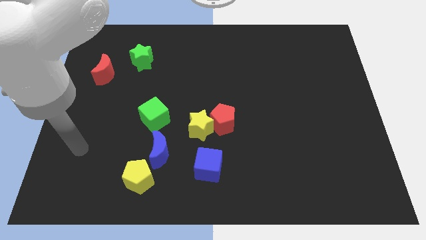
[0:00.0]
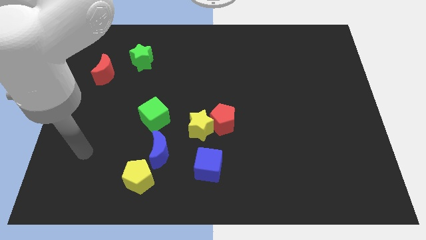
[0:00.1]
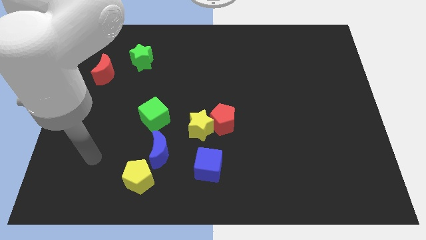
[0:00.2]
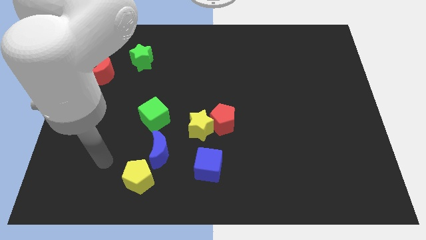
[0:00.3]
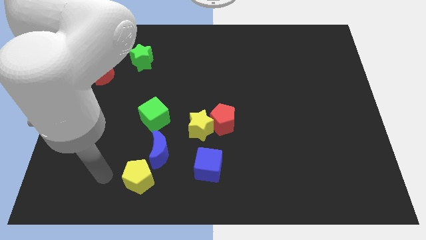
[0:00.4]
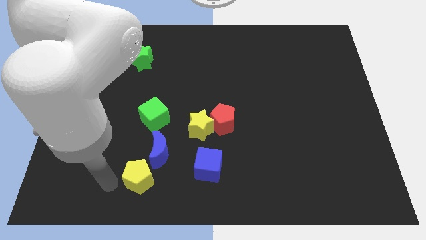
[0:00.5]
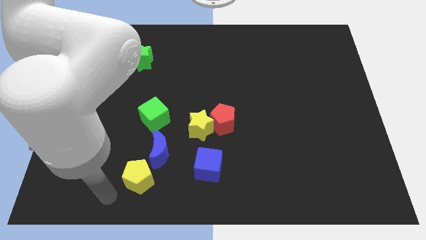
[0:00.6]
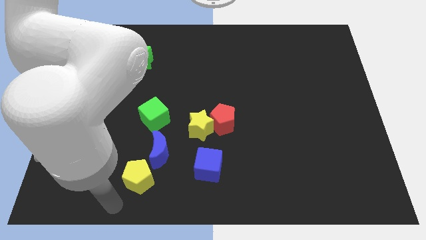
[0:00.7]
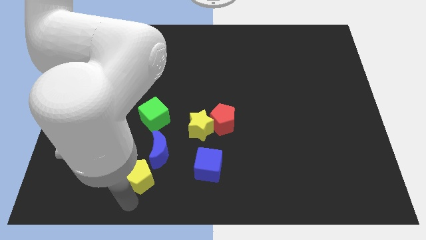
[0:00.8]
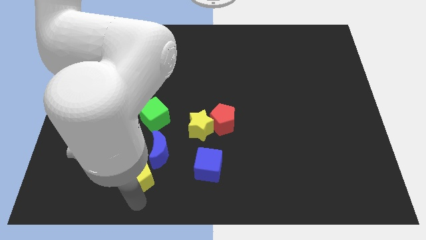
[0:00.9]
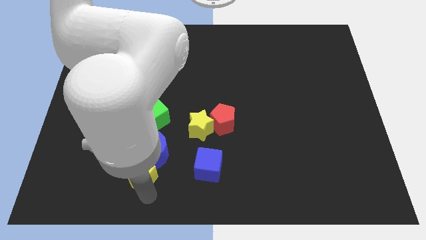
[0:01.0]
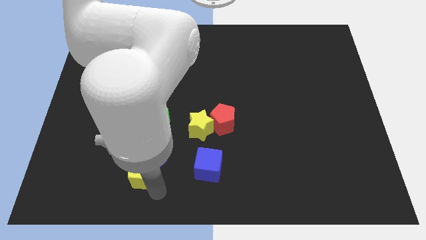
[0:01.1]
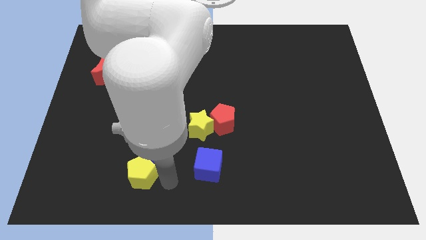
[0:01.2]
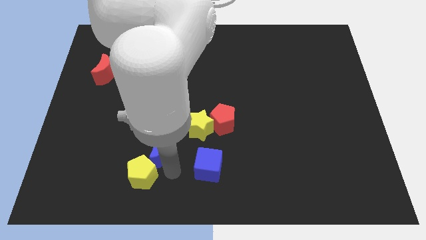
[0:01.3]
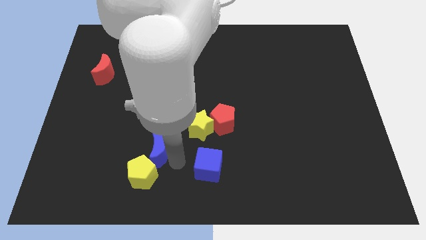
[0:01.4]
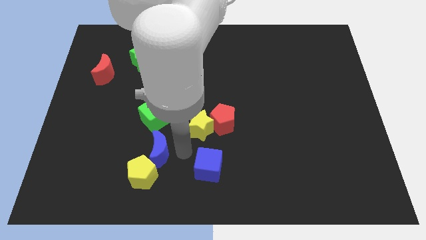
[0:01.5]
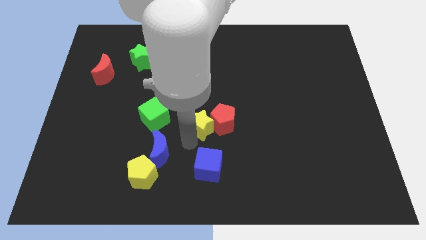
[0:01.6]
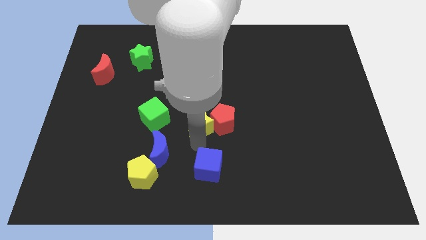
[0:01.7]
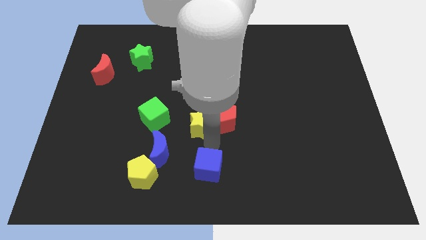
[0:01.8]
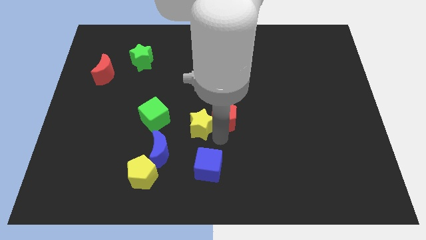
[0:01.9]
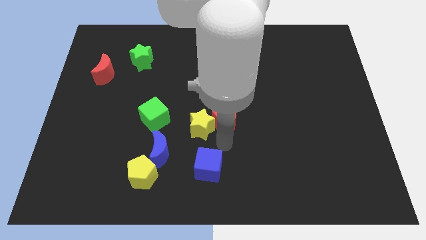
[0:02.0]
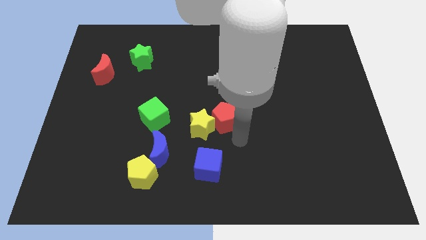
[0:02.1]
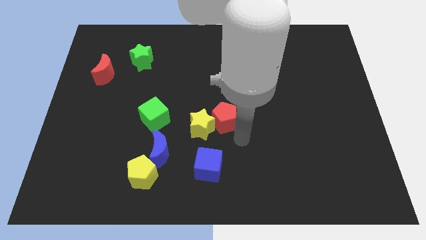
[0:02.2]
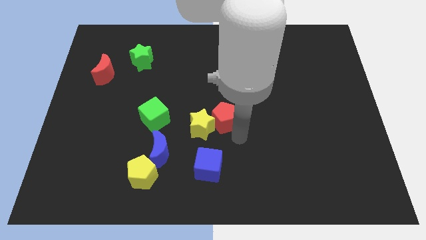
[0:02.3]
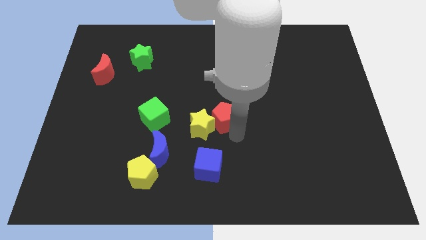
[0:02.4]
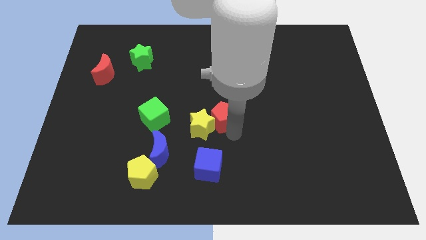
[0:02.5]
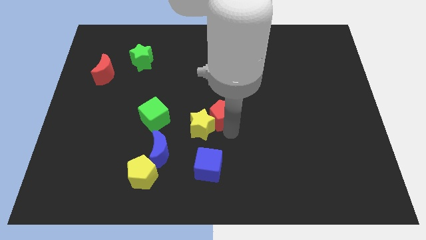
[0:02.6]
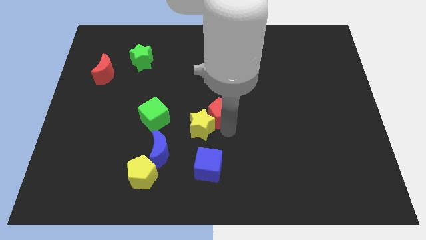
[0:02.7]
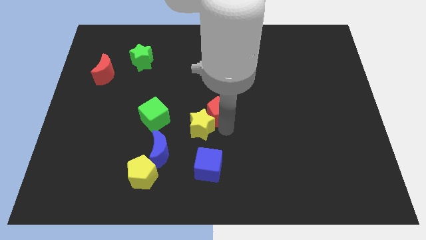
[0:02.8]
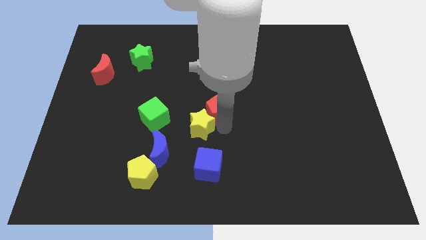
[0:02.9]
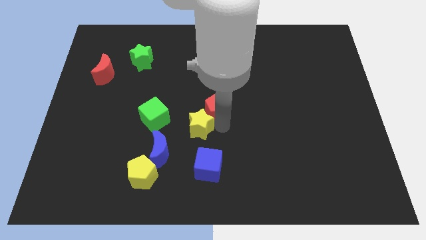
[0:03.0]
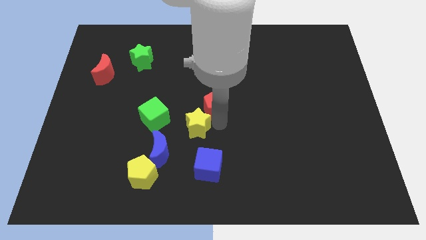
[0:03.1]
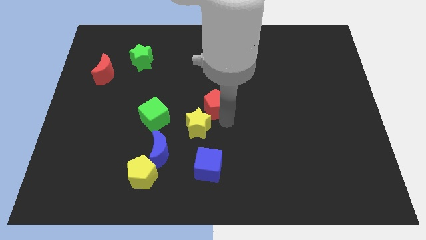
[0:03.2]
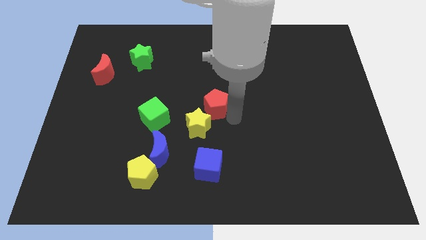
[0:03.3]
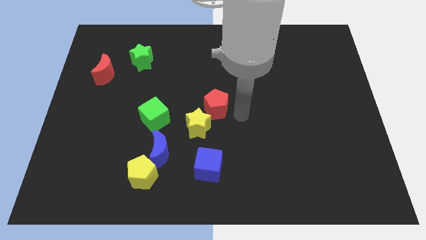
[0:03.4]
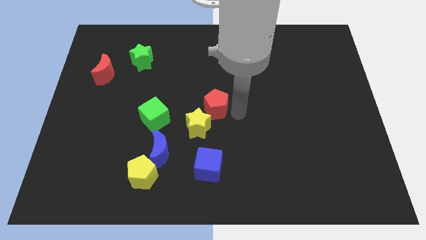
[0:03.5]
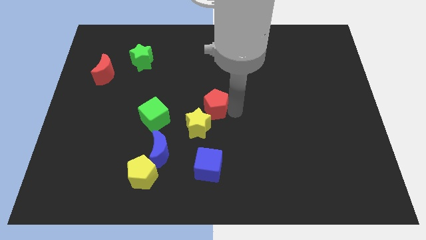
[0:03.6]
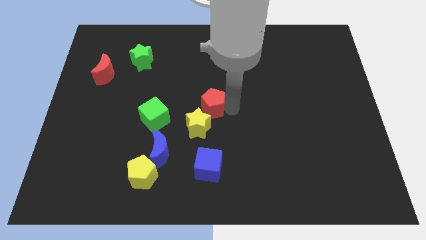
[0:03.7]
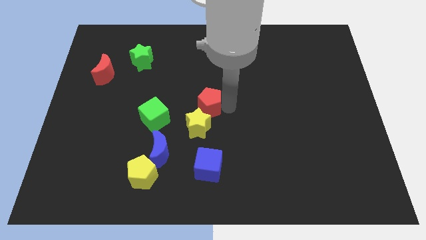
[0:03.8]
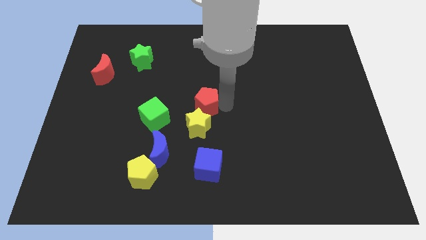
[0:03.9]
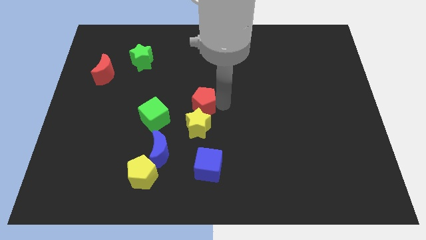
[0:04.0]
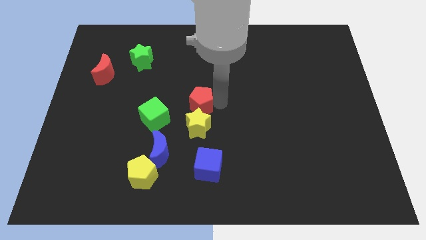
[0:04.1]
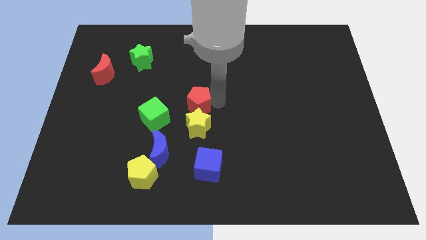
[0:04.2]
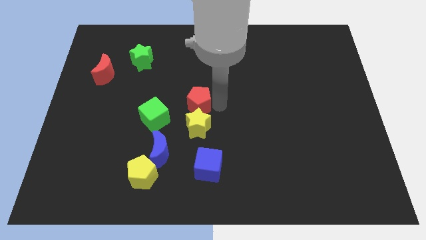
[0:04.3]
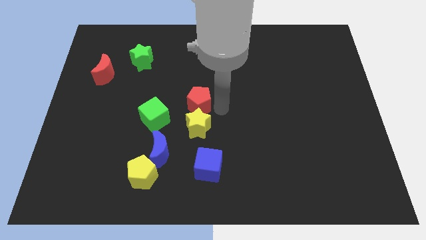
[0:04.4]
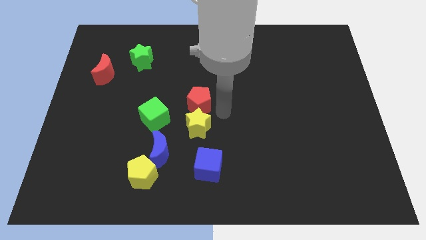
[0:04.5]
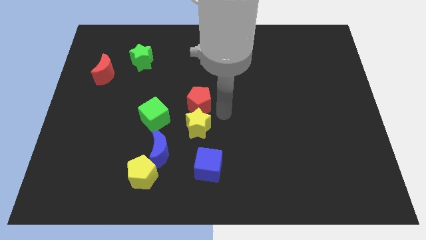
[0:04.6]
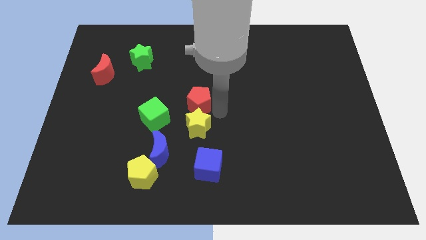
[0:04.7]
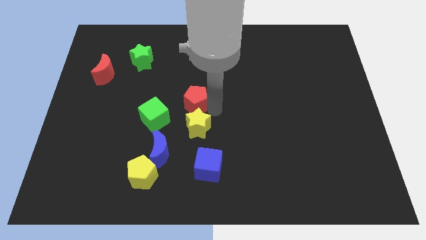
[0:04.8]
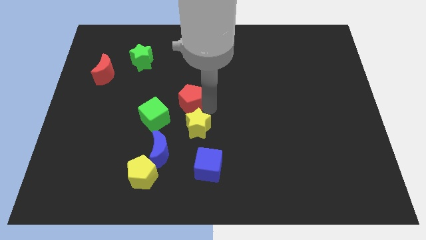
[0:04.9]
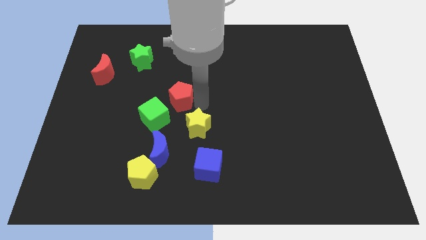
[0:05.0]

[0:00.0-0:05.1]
slide the red pentagon a little left

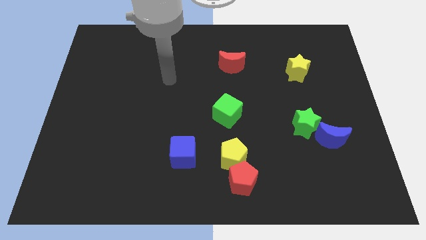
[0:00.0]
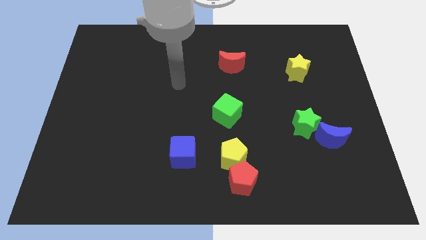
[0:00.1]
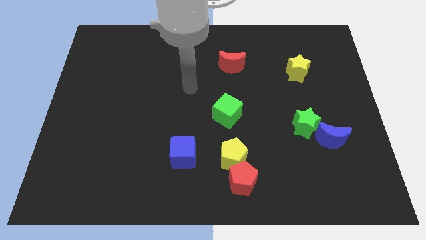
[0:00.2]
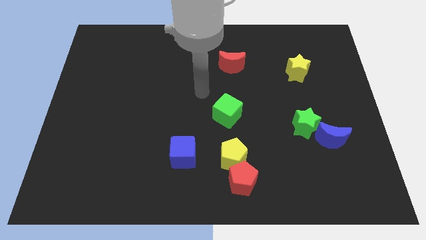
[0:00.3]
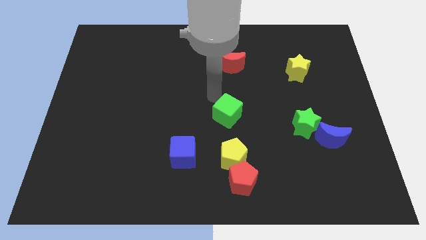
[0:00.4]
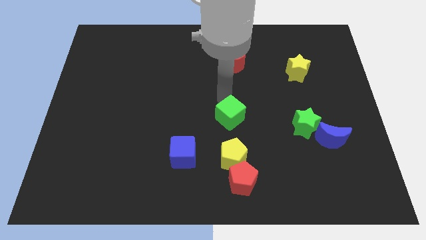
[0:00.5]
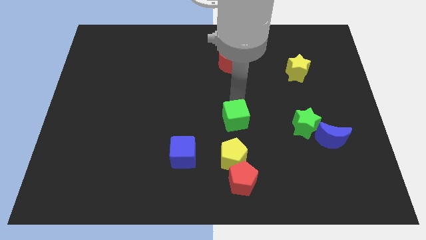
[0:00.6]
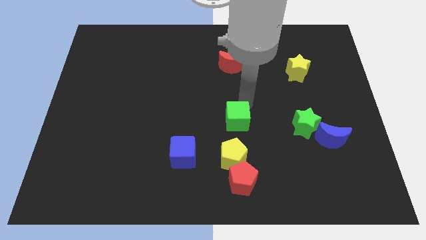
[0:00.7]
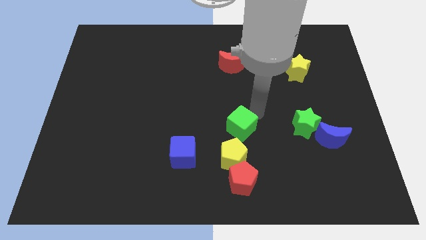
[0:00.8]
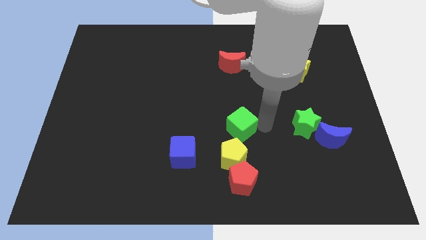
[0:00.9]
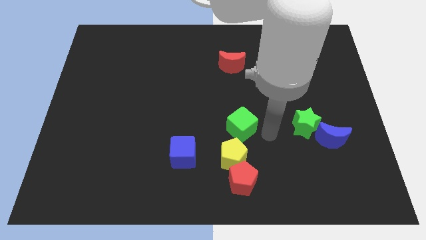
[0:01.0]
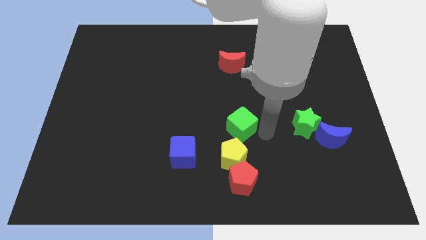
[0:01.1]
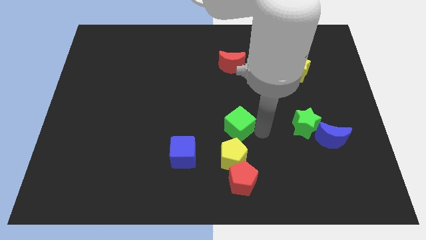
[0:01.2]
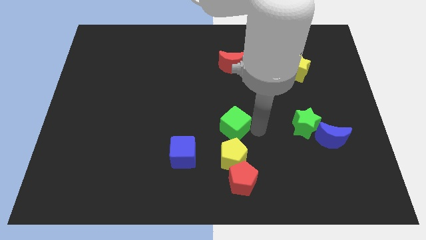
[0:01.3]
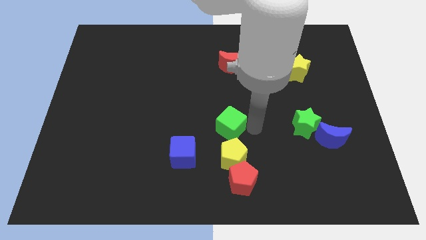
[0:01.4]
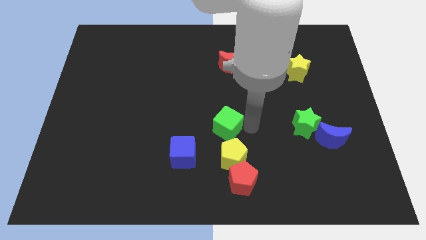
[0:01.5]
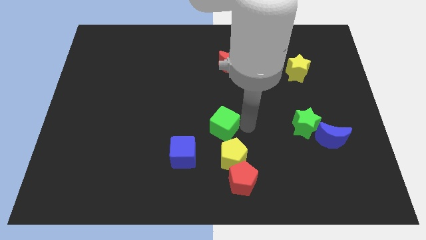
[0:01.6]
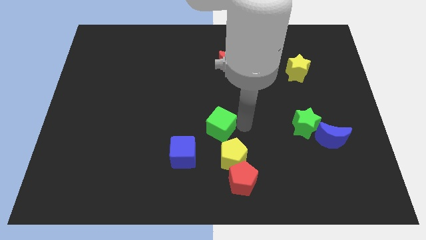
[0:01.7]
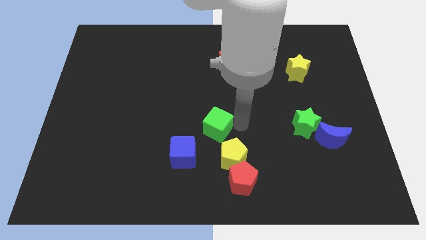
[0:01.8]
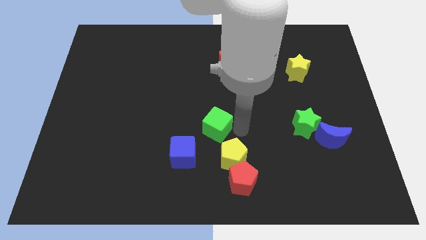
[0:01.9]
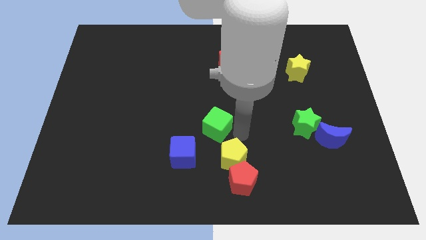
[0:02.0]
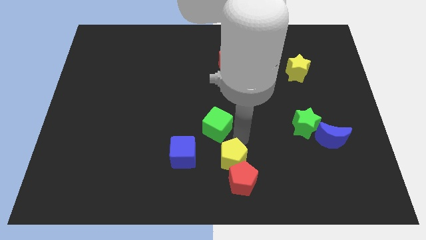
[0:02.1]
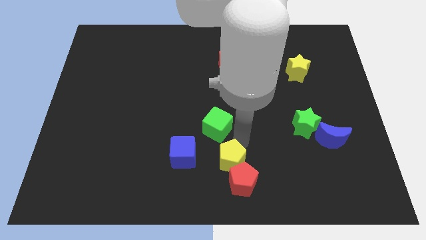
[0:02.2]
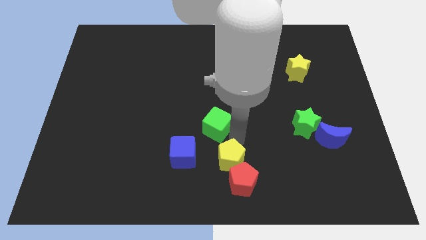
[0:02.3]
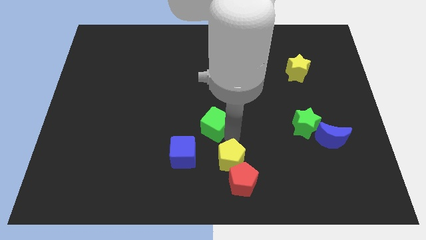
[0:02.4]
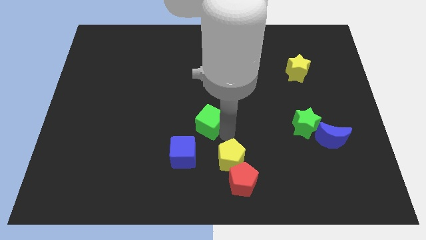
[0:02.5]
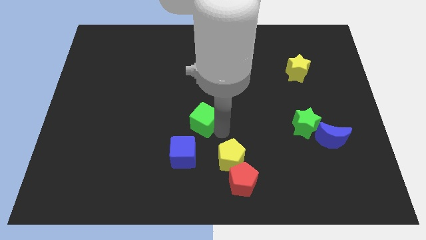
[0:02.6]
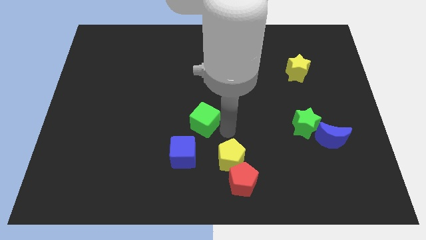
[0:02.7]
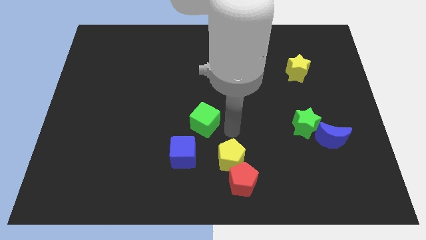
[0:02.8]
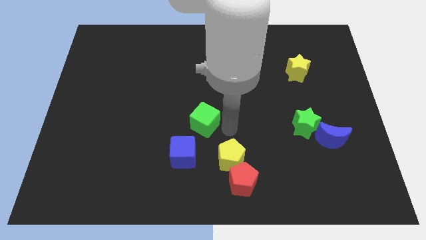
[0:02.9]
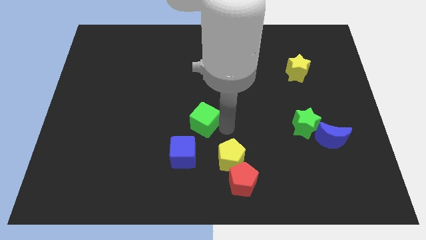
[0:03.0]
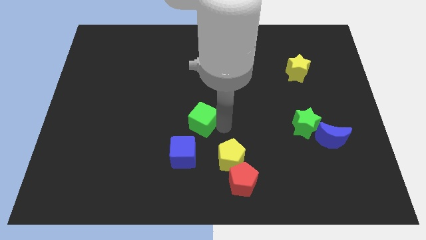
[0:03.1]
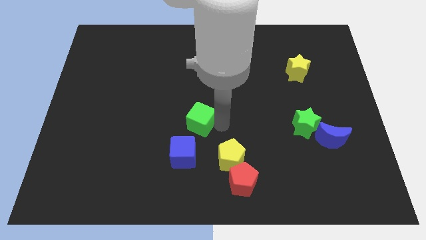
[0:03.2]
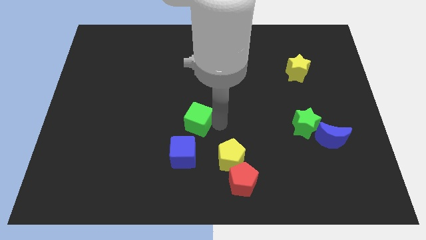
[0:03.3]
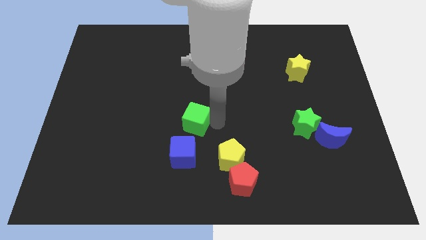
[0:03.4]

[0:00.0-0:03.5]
slightly move the green cube to the left
